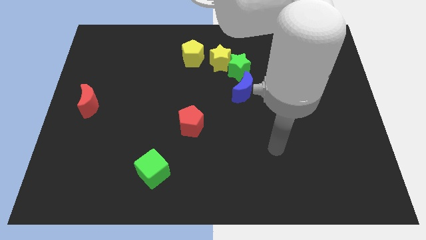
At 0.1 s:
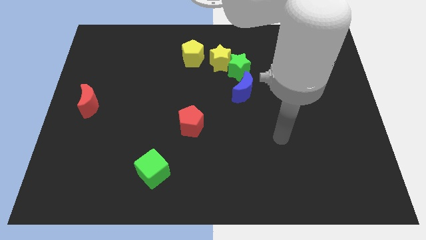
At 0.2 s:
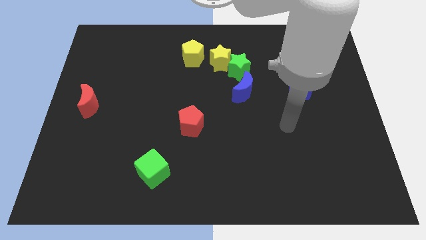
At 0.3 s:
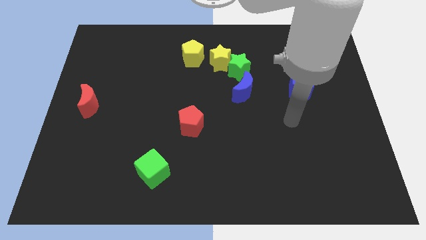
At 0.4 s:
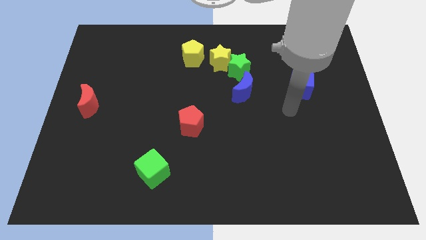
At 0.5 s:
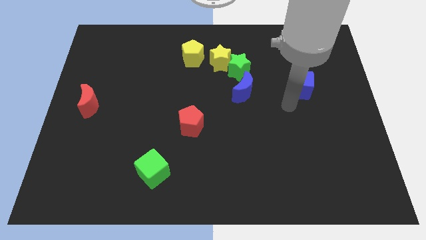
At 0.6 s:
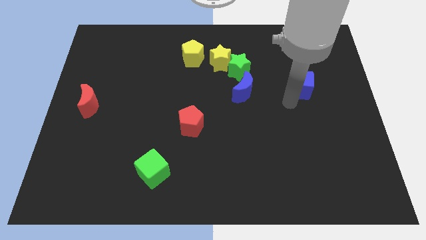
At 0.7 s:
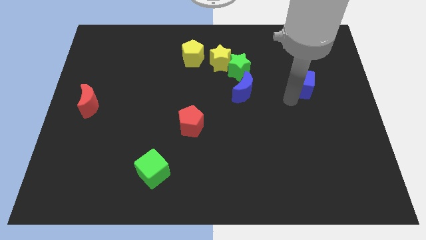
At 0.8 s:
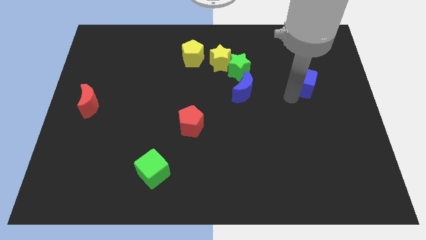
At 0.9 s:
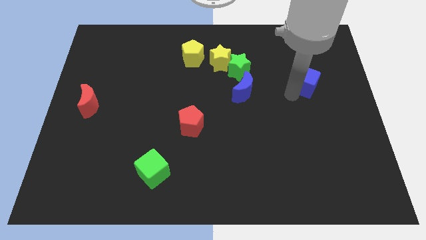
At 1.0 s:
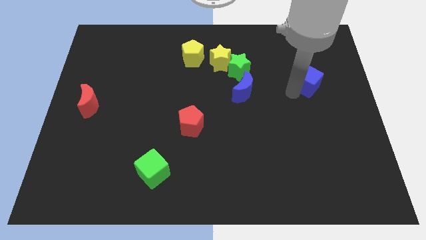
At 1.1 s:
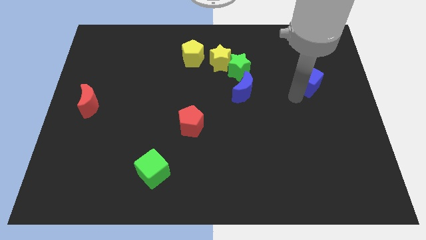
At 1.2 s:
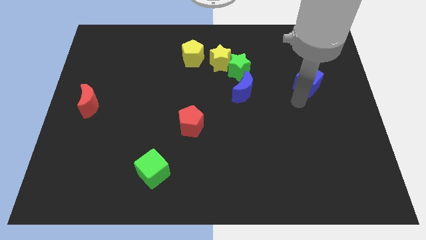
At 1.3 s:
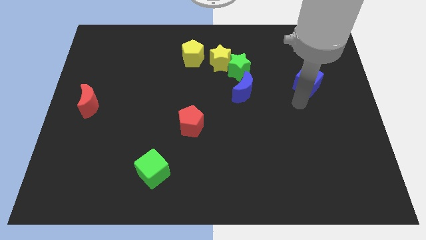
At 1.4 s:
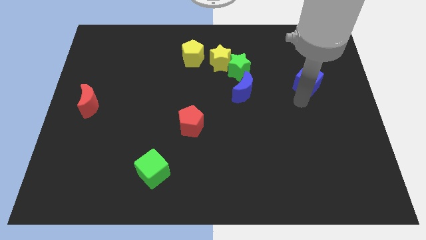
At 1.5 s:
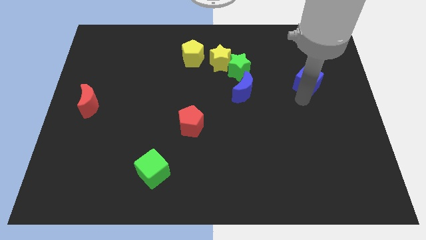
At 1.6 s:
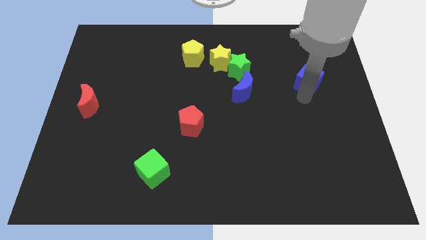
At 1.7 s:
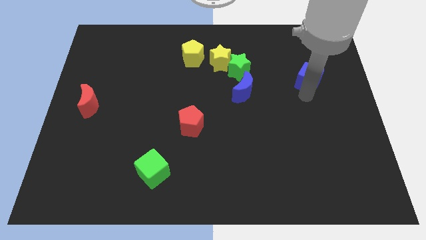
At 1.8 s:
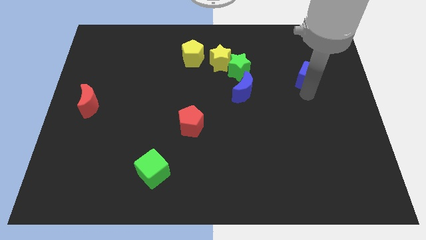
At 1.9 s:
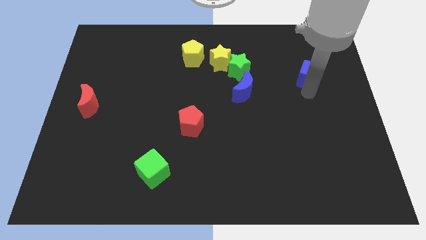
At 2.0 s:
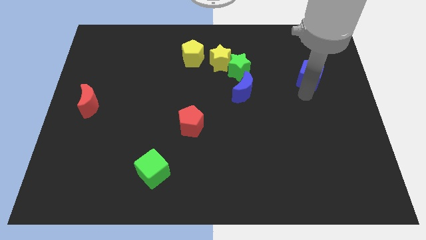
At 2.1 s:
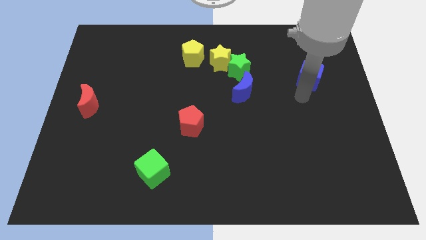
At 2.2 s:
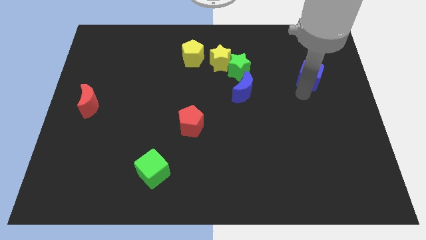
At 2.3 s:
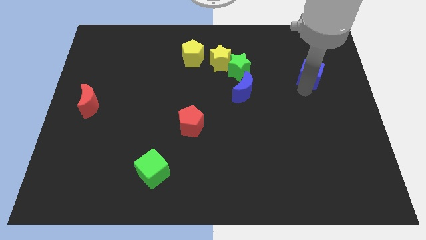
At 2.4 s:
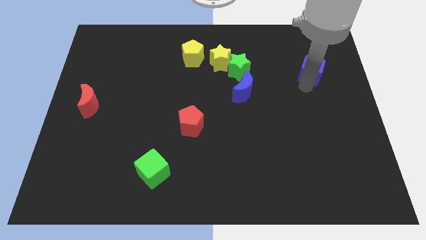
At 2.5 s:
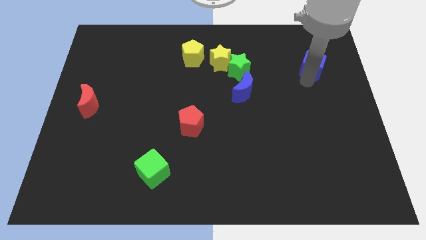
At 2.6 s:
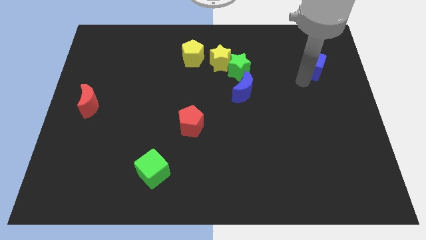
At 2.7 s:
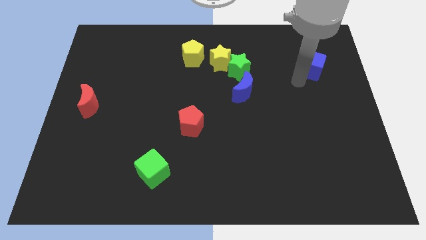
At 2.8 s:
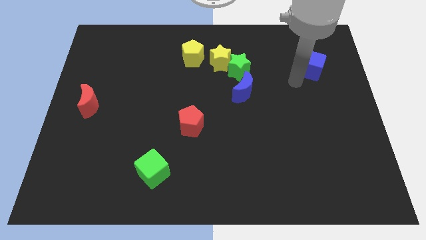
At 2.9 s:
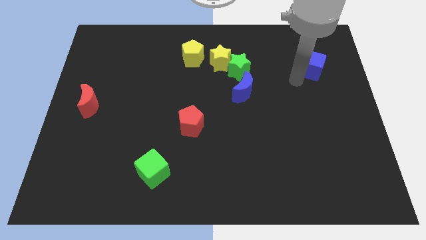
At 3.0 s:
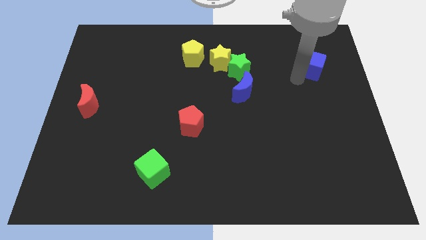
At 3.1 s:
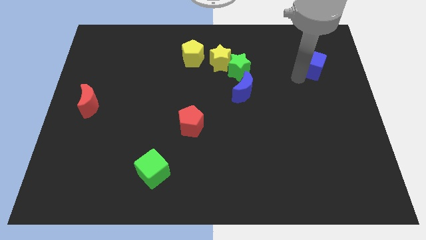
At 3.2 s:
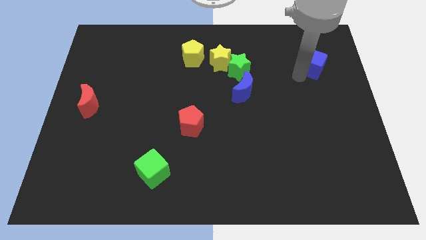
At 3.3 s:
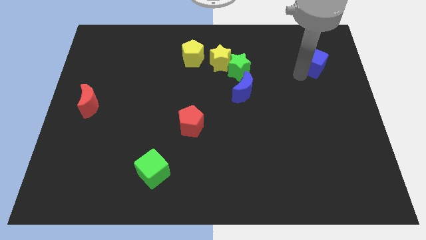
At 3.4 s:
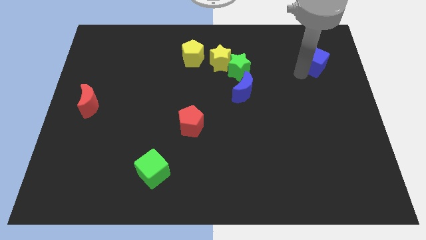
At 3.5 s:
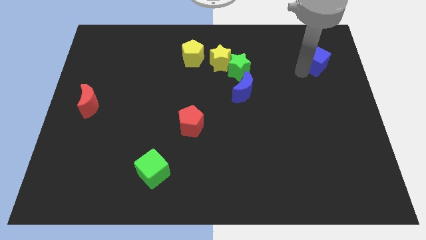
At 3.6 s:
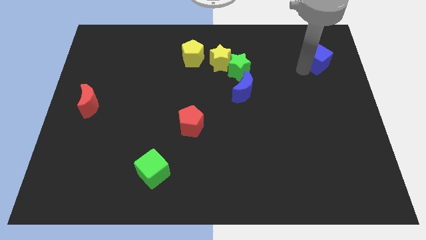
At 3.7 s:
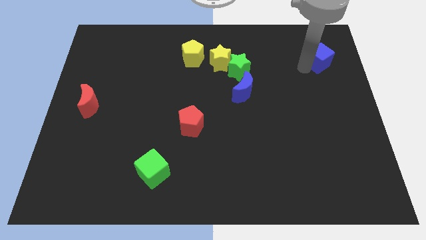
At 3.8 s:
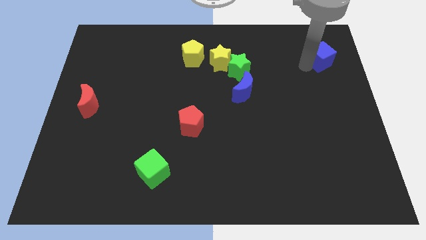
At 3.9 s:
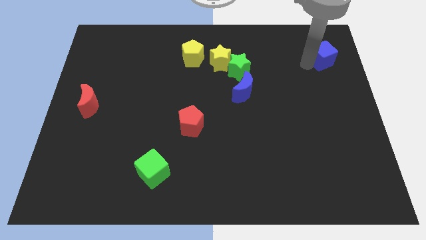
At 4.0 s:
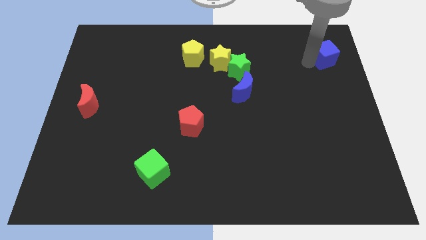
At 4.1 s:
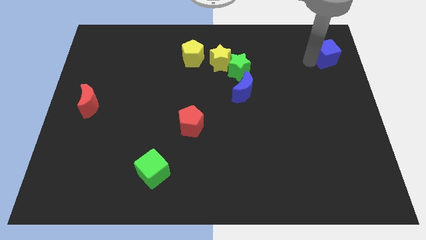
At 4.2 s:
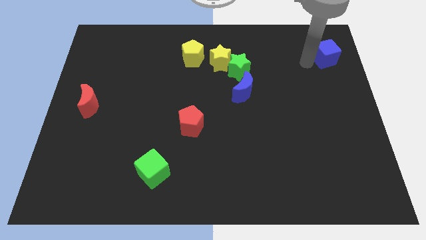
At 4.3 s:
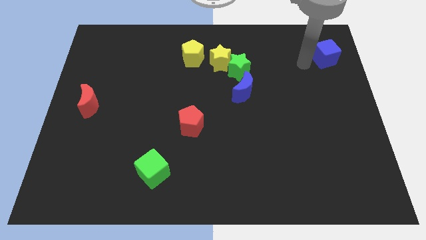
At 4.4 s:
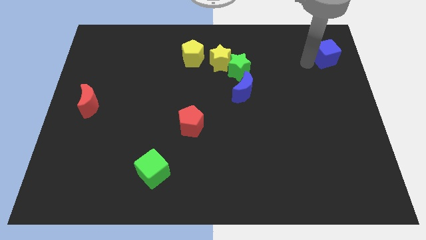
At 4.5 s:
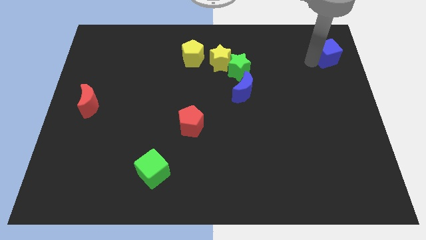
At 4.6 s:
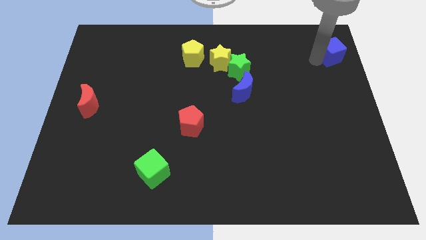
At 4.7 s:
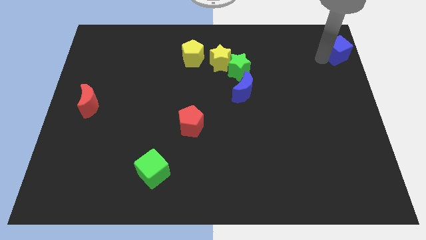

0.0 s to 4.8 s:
push the blue cube to the top right of the board

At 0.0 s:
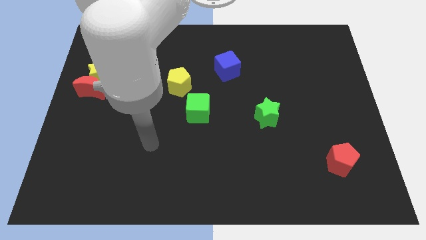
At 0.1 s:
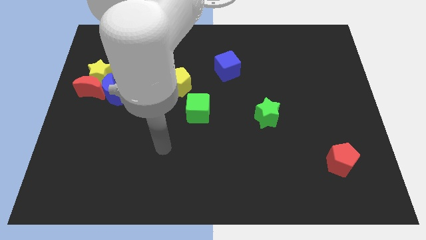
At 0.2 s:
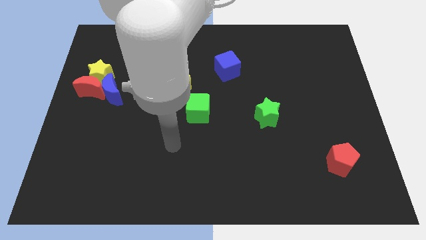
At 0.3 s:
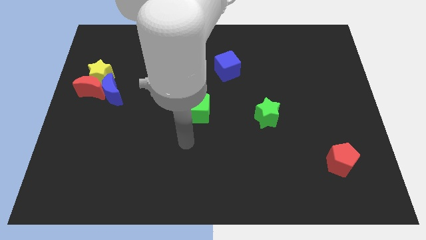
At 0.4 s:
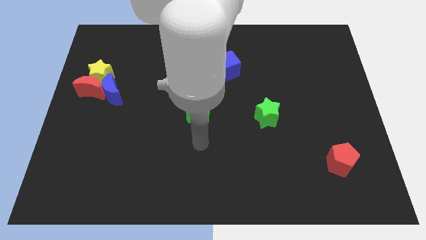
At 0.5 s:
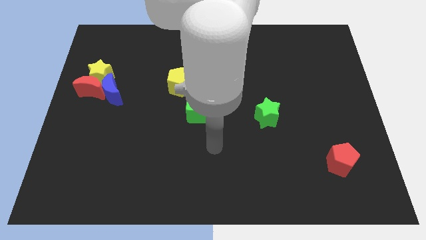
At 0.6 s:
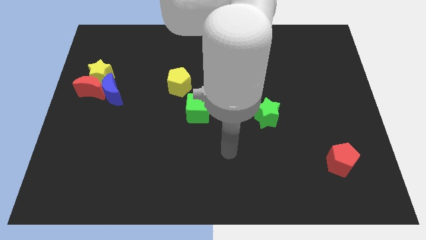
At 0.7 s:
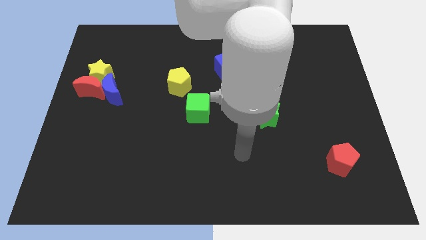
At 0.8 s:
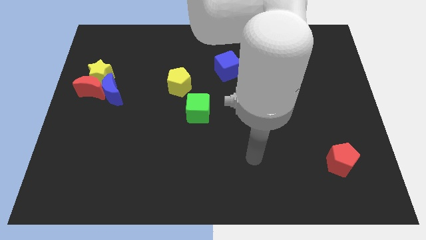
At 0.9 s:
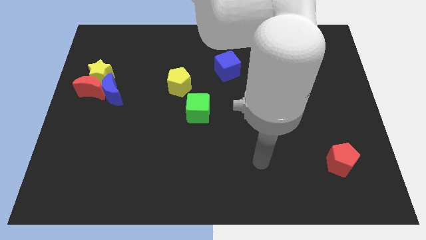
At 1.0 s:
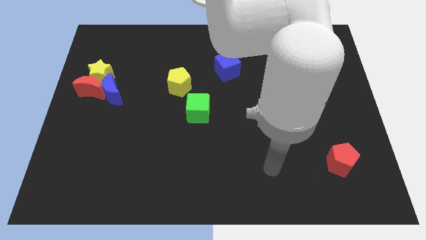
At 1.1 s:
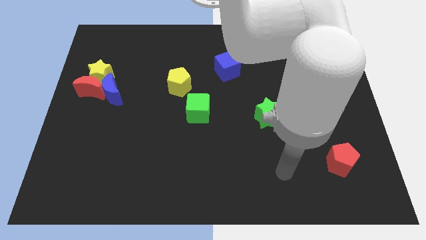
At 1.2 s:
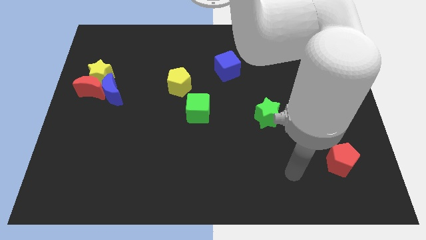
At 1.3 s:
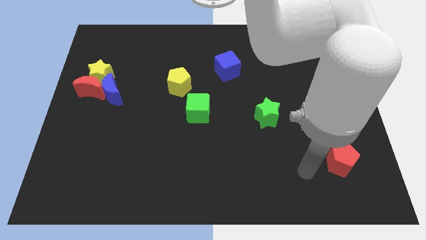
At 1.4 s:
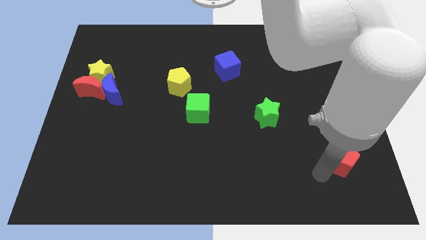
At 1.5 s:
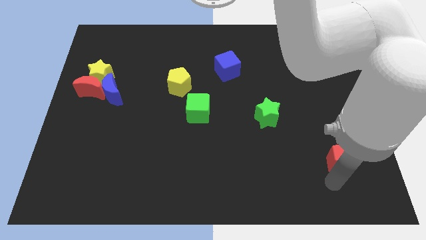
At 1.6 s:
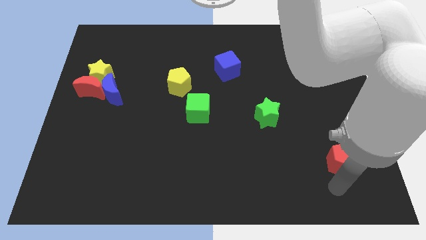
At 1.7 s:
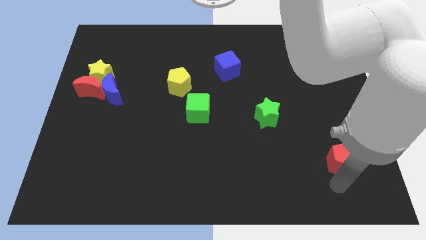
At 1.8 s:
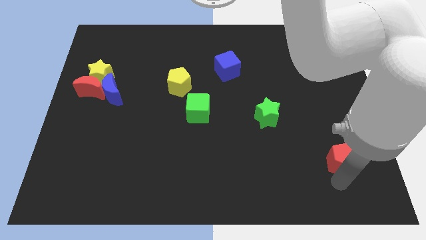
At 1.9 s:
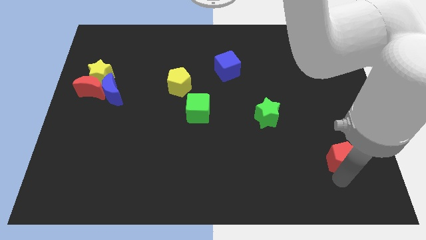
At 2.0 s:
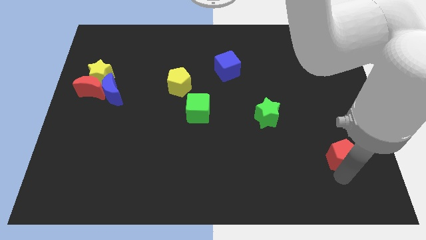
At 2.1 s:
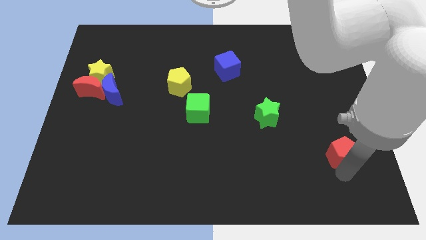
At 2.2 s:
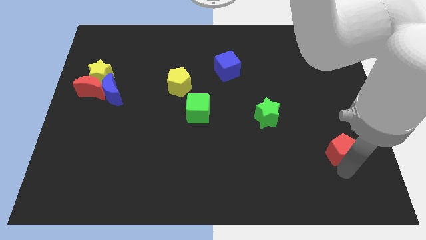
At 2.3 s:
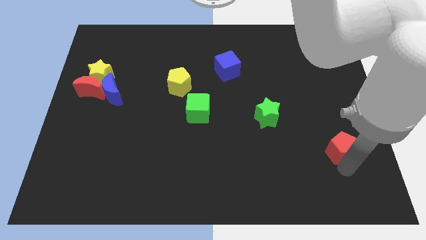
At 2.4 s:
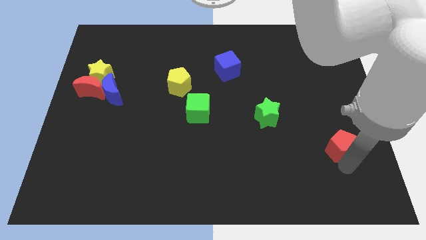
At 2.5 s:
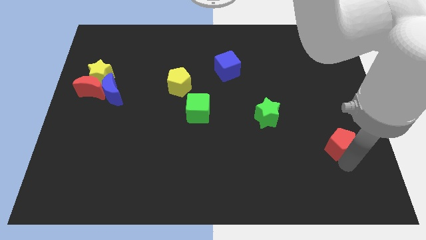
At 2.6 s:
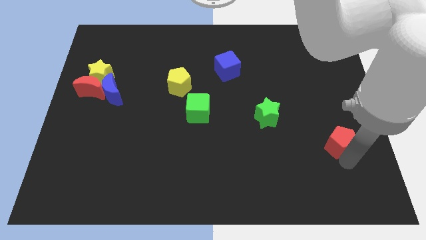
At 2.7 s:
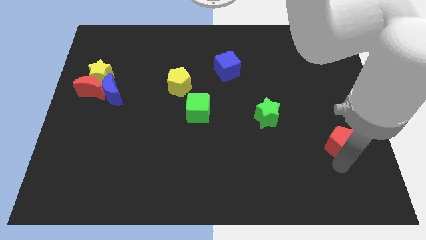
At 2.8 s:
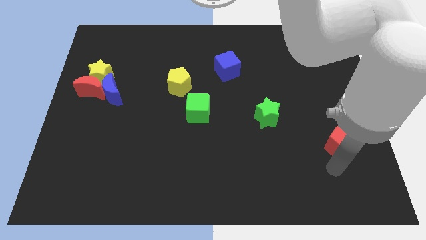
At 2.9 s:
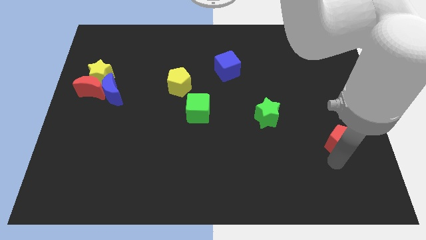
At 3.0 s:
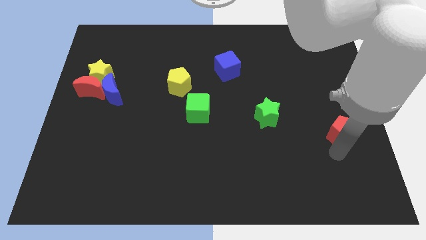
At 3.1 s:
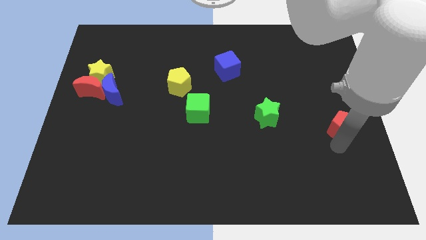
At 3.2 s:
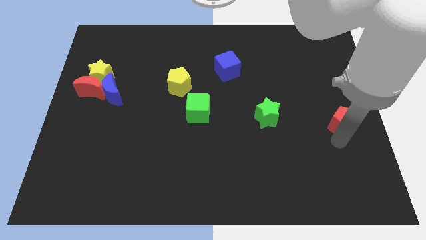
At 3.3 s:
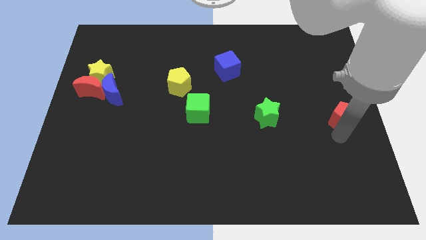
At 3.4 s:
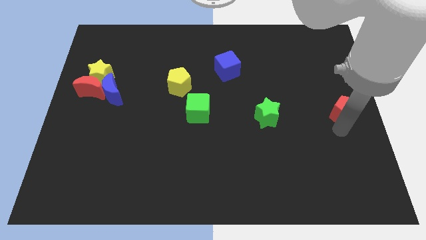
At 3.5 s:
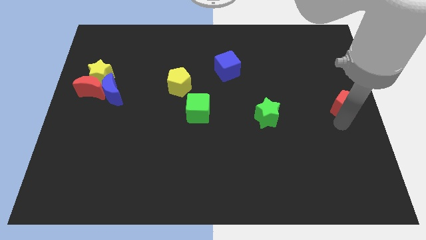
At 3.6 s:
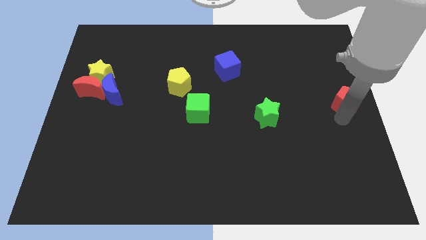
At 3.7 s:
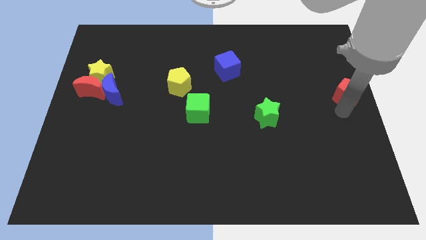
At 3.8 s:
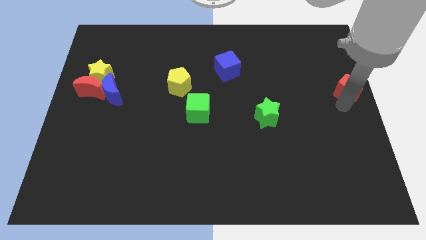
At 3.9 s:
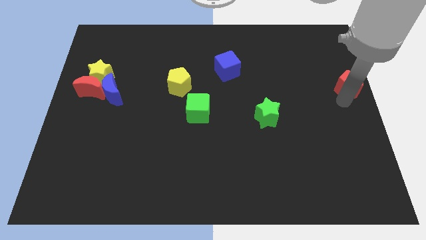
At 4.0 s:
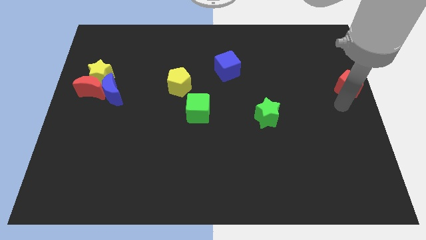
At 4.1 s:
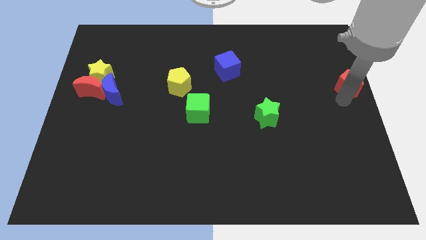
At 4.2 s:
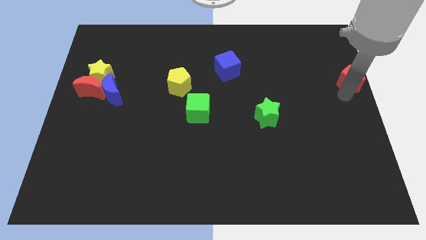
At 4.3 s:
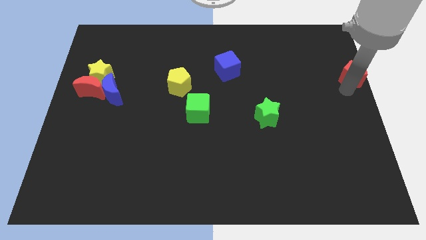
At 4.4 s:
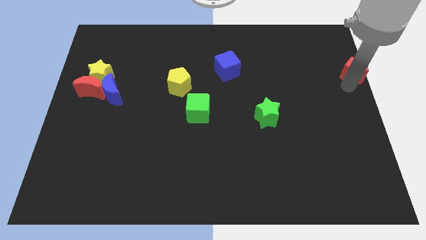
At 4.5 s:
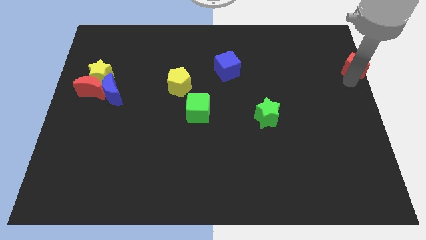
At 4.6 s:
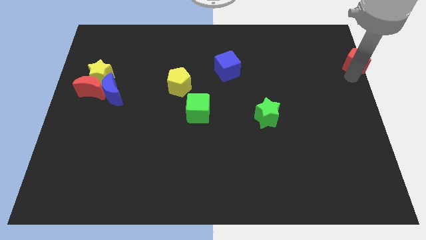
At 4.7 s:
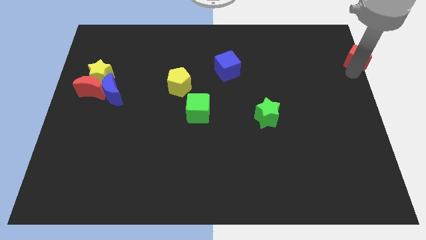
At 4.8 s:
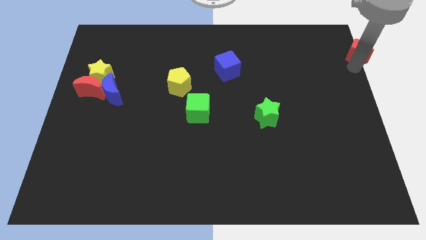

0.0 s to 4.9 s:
push the red pentagon to the upper right corner
